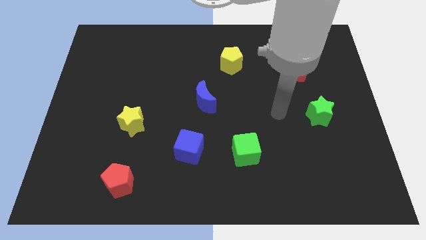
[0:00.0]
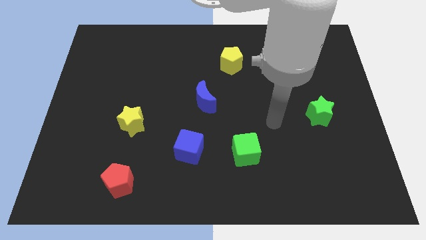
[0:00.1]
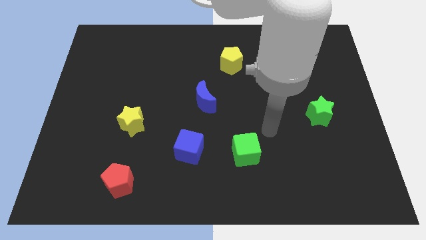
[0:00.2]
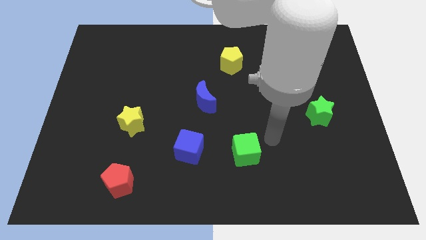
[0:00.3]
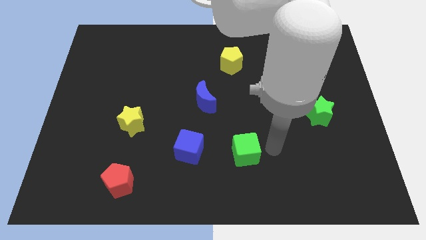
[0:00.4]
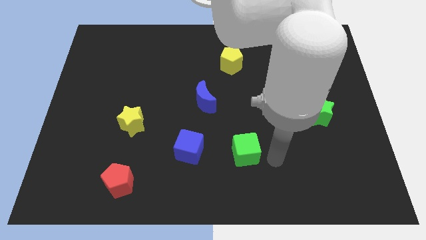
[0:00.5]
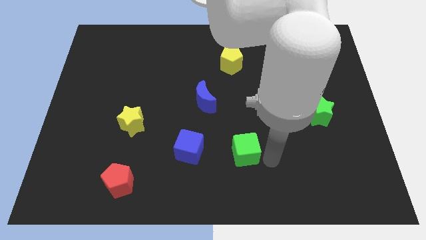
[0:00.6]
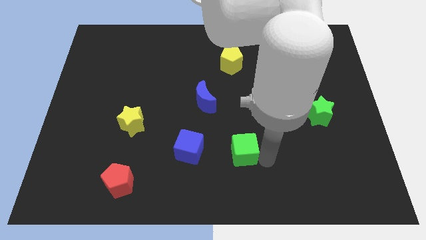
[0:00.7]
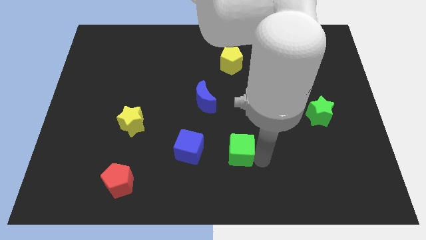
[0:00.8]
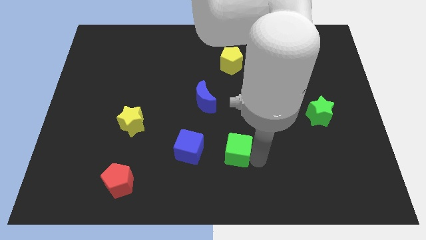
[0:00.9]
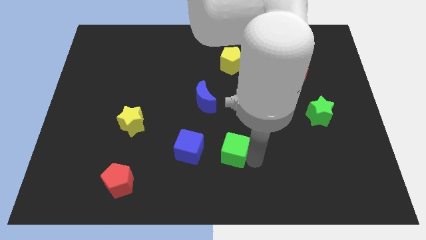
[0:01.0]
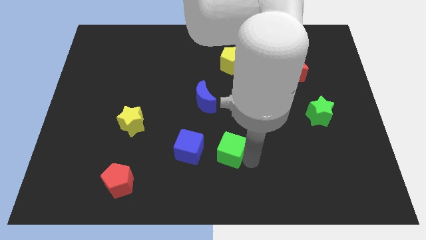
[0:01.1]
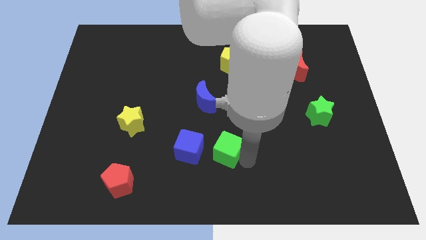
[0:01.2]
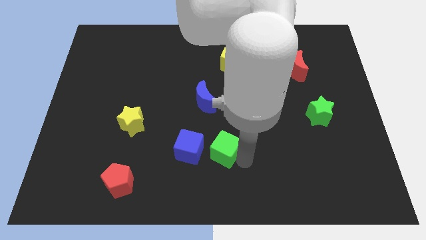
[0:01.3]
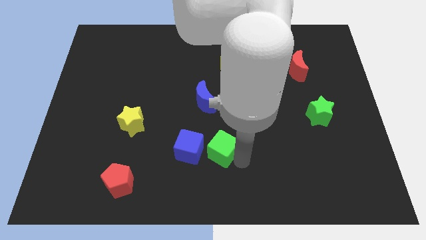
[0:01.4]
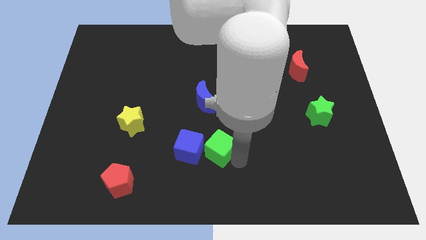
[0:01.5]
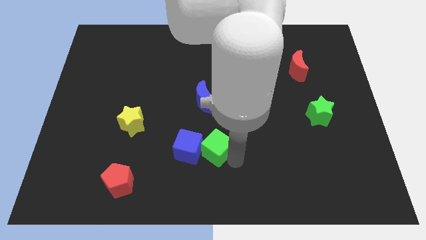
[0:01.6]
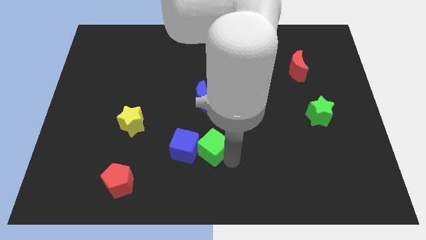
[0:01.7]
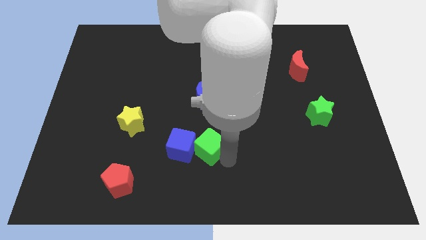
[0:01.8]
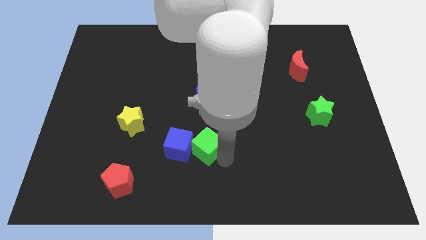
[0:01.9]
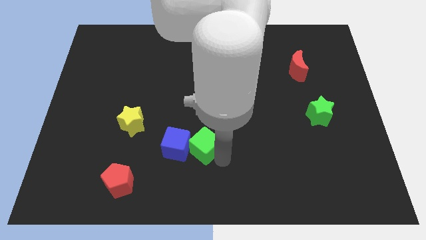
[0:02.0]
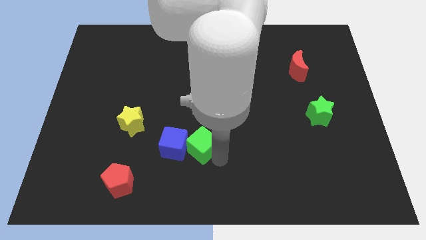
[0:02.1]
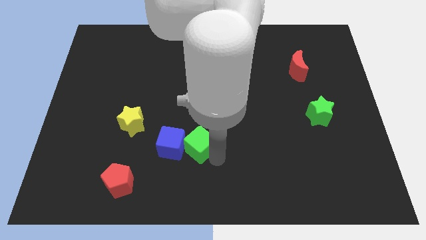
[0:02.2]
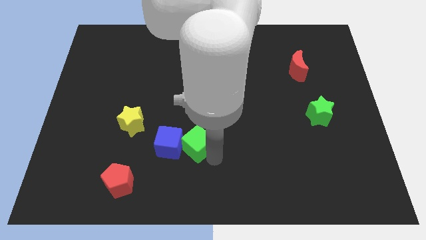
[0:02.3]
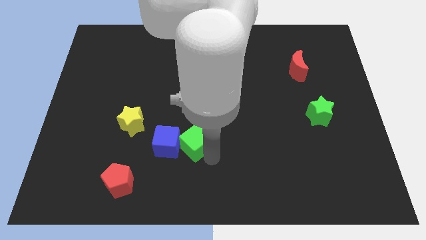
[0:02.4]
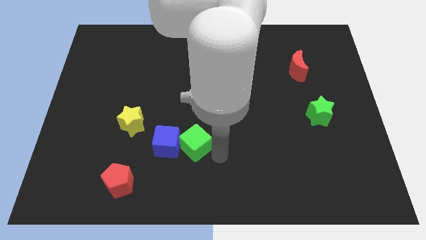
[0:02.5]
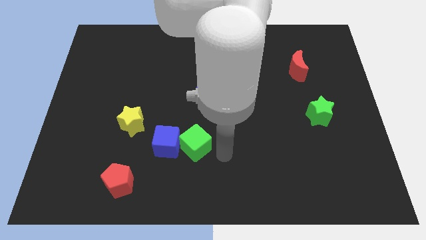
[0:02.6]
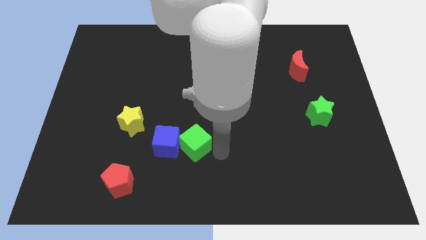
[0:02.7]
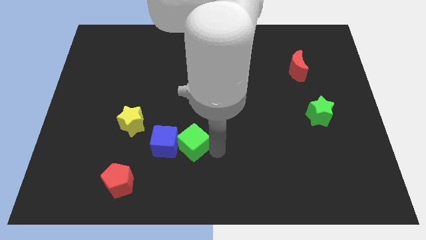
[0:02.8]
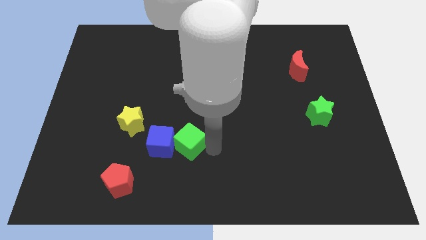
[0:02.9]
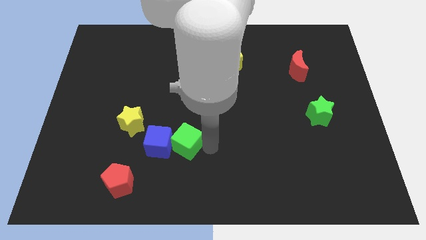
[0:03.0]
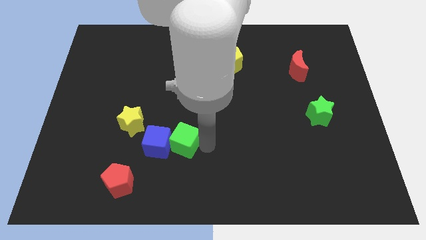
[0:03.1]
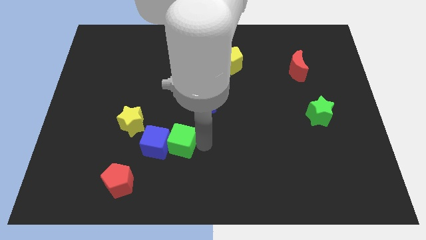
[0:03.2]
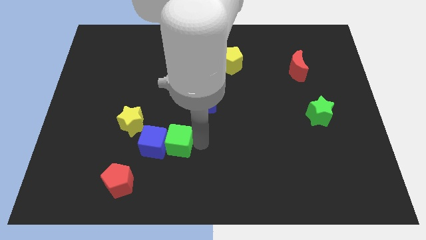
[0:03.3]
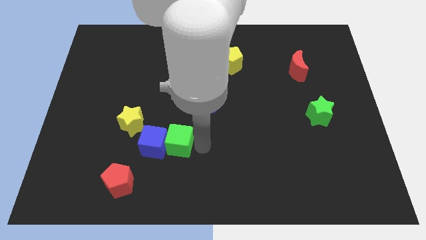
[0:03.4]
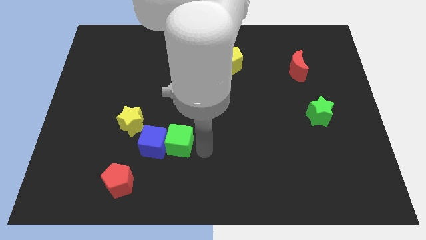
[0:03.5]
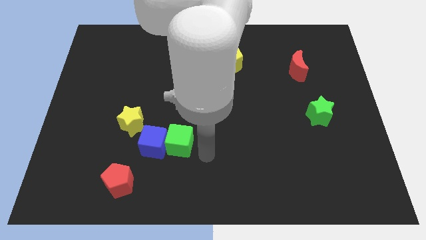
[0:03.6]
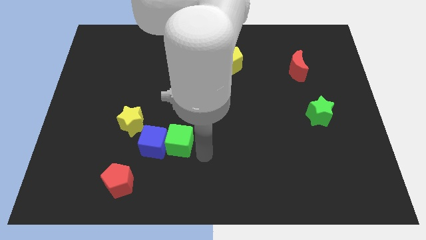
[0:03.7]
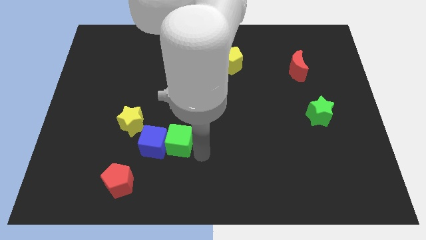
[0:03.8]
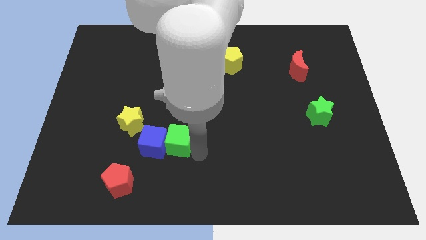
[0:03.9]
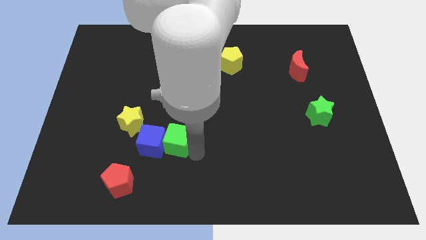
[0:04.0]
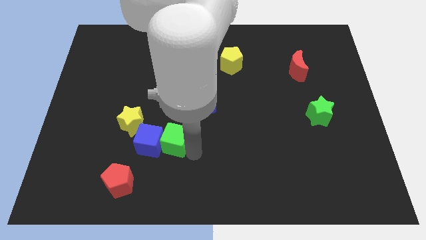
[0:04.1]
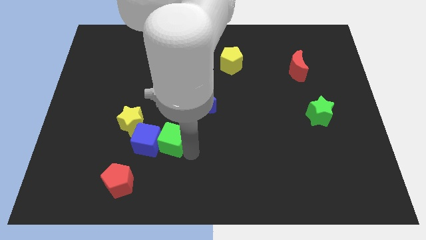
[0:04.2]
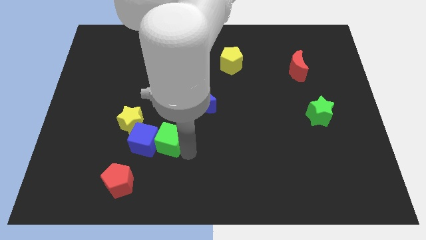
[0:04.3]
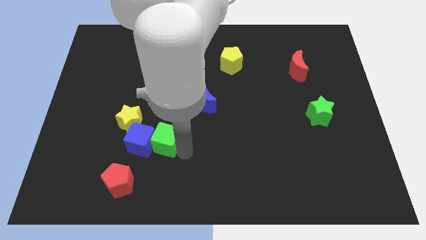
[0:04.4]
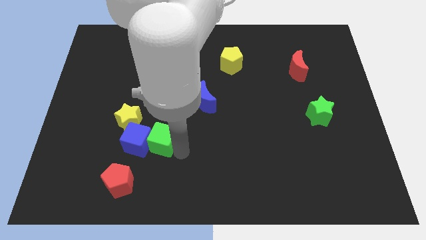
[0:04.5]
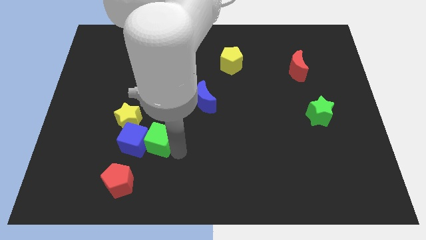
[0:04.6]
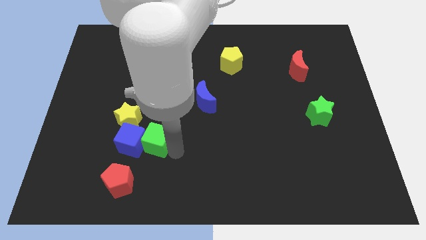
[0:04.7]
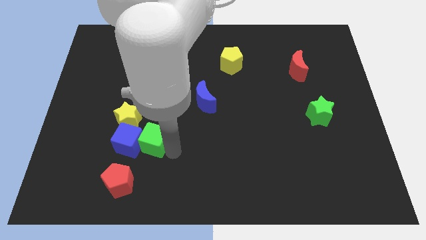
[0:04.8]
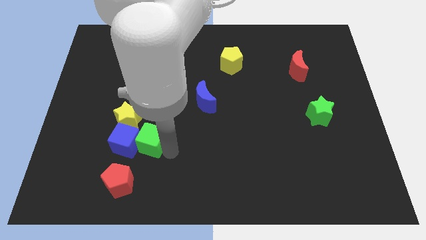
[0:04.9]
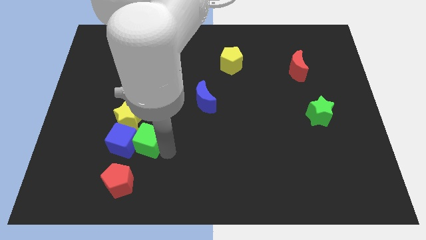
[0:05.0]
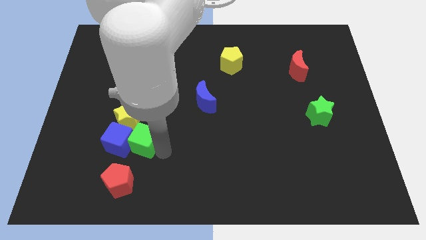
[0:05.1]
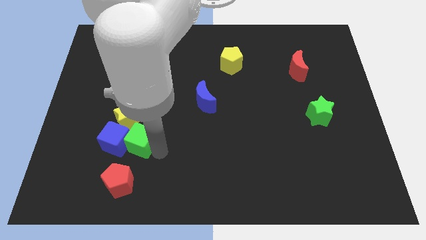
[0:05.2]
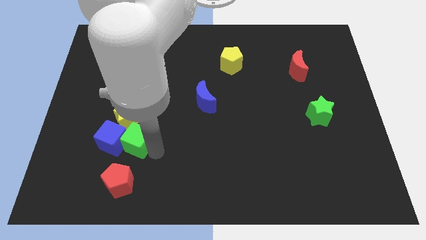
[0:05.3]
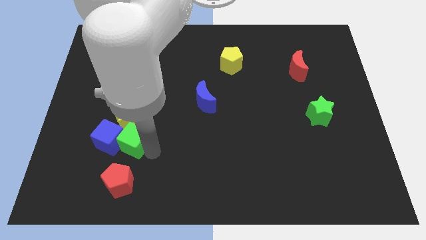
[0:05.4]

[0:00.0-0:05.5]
put the green cube to the yellow star

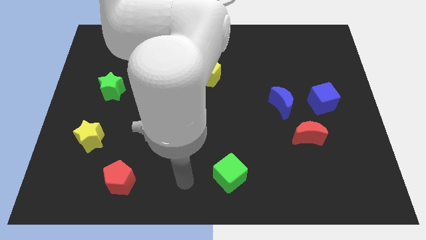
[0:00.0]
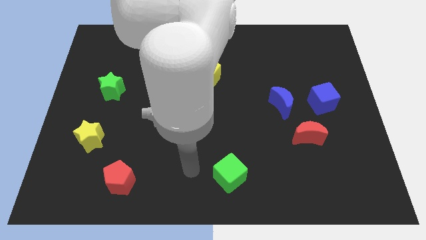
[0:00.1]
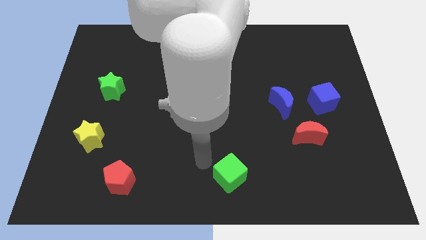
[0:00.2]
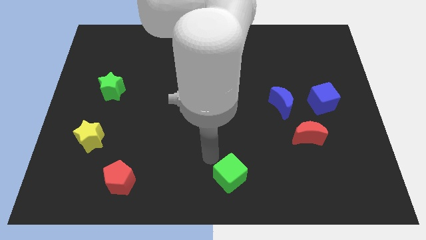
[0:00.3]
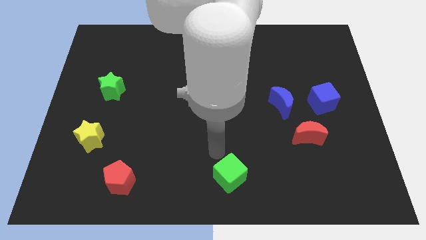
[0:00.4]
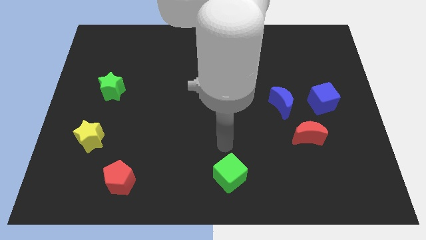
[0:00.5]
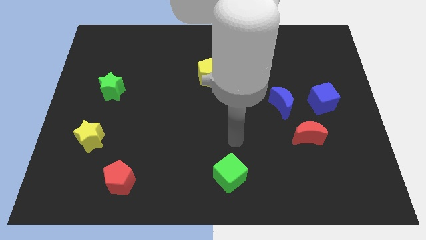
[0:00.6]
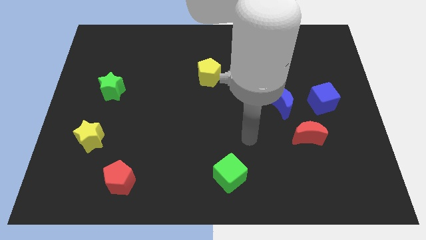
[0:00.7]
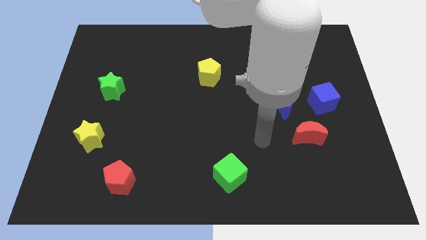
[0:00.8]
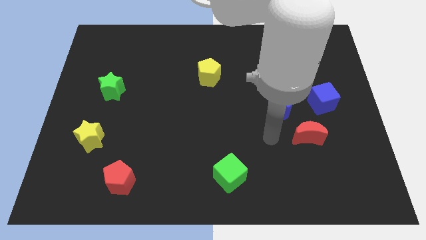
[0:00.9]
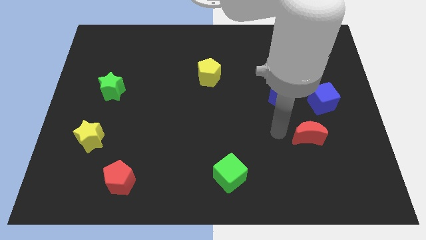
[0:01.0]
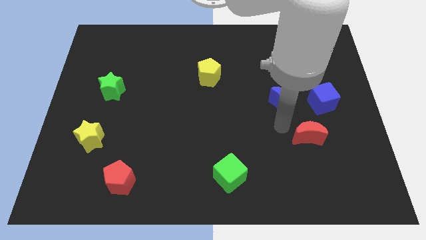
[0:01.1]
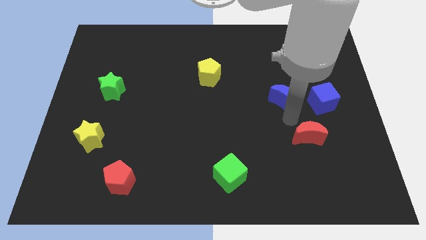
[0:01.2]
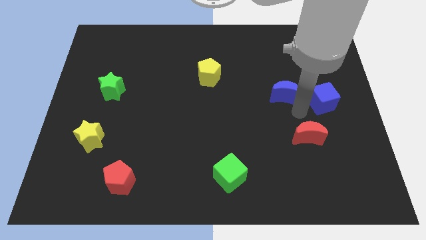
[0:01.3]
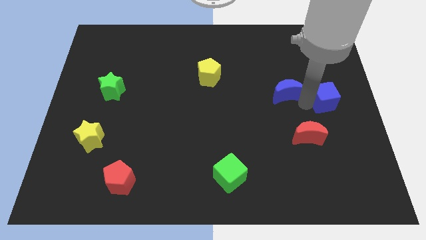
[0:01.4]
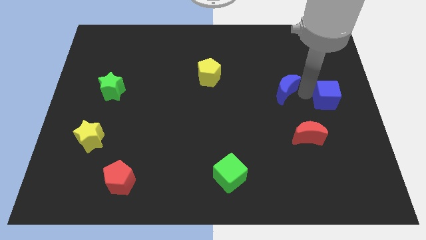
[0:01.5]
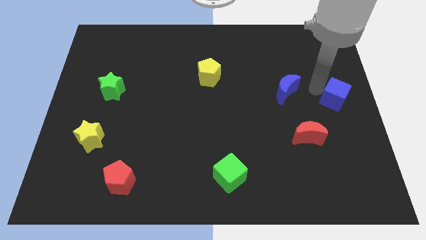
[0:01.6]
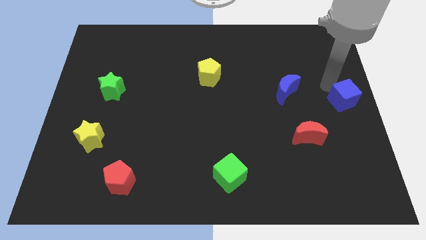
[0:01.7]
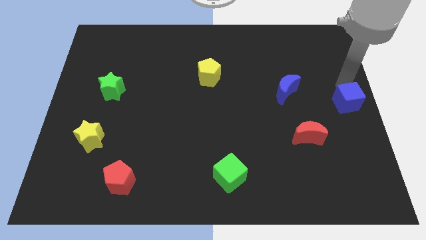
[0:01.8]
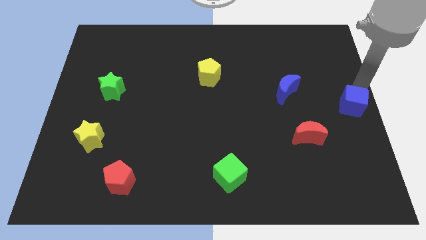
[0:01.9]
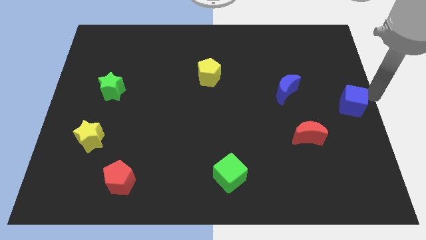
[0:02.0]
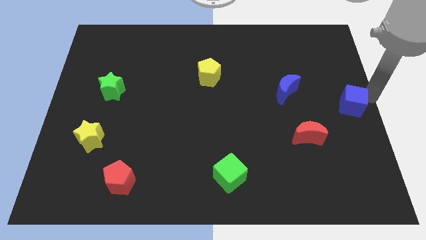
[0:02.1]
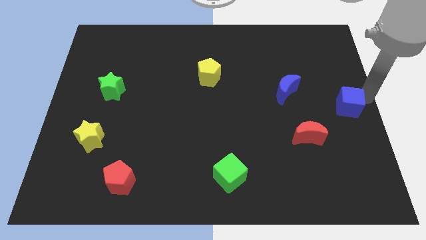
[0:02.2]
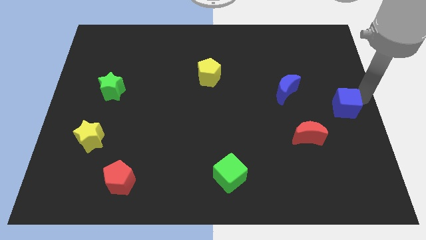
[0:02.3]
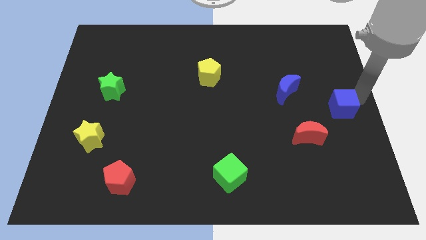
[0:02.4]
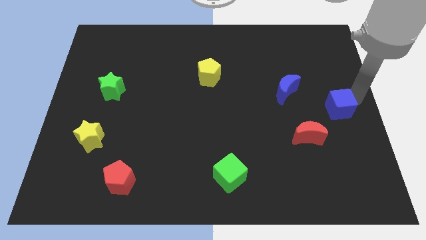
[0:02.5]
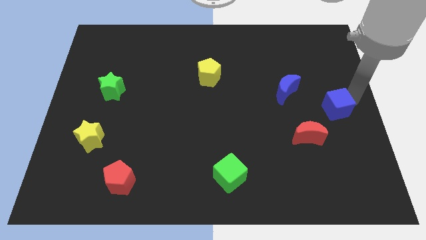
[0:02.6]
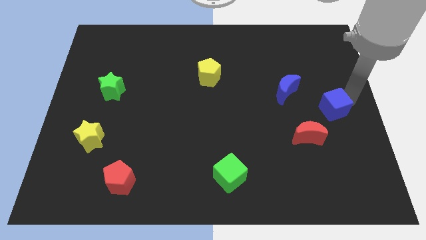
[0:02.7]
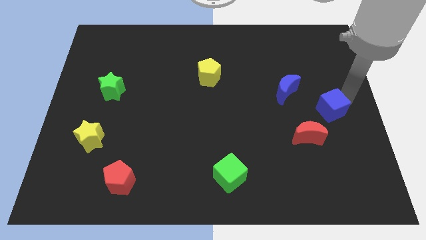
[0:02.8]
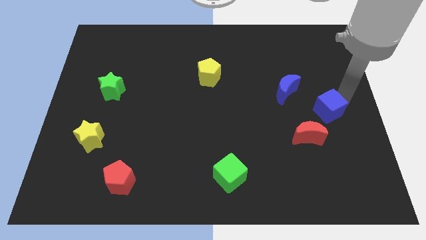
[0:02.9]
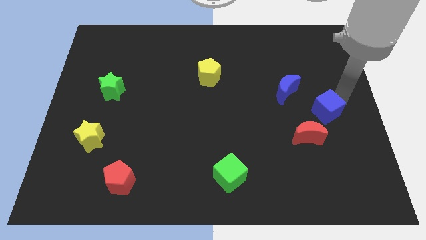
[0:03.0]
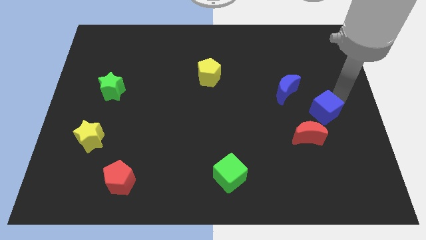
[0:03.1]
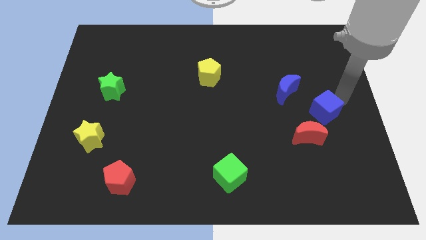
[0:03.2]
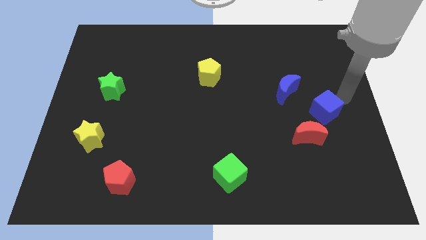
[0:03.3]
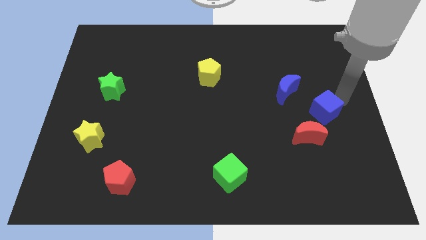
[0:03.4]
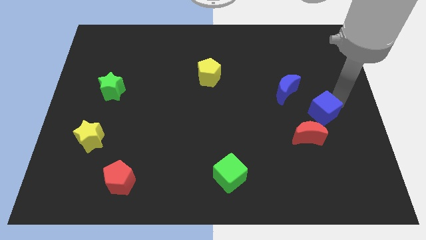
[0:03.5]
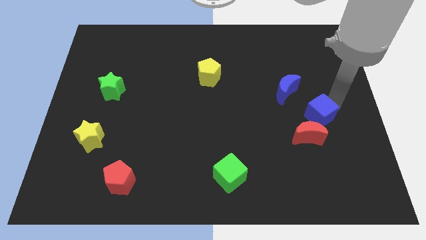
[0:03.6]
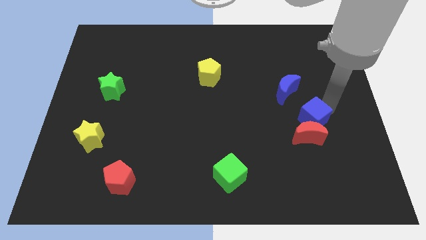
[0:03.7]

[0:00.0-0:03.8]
push the blue cube towards the red moon
